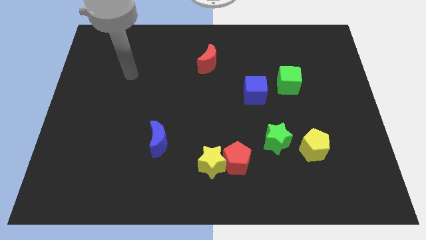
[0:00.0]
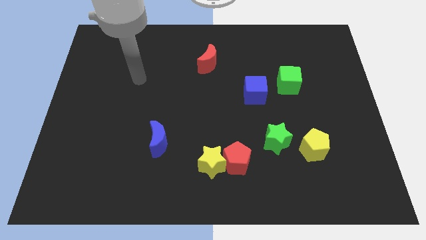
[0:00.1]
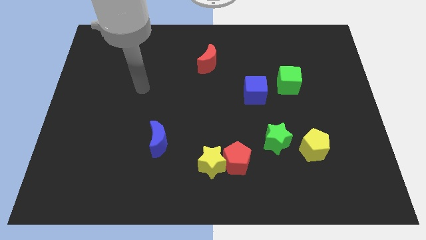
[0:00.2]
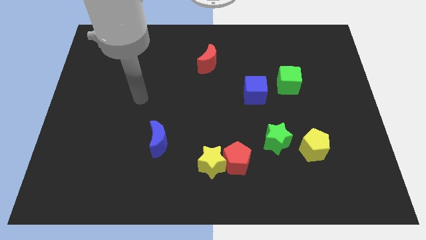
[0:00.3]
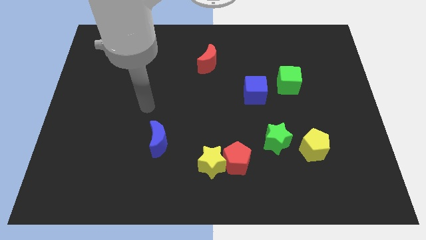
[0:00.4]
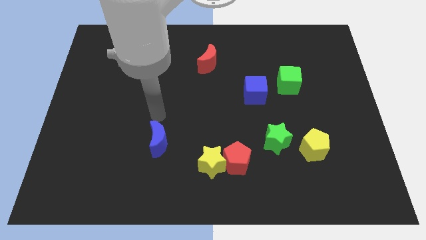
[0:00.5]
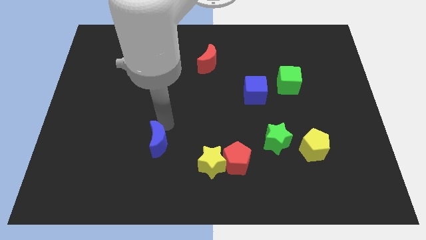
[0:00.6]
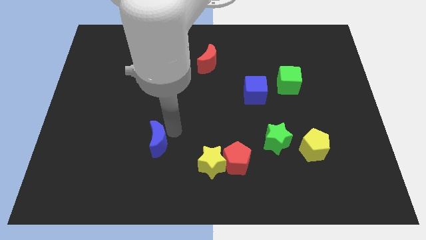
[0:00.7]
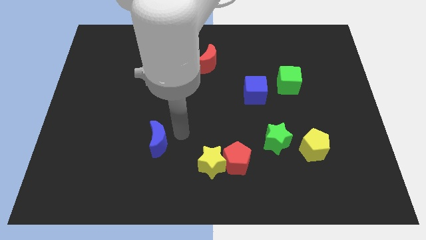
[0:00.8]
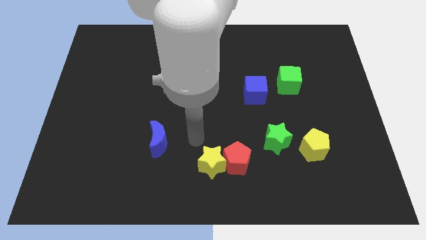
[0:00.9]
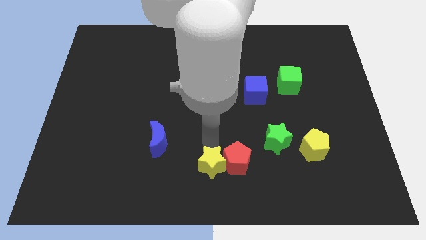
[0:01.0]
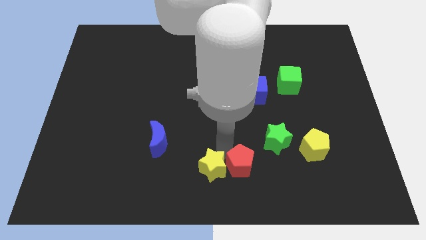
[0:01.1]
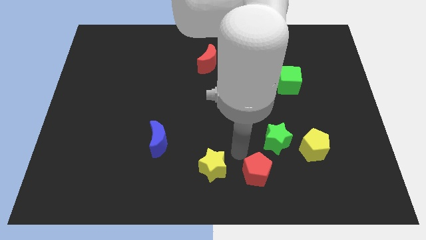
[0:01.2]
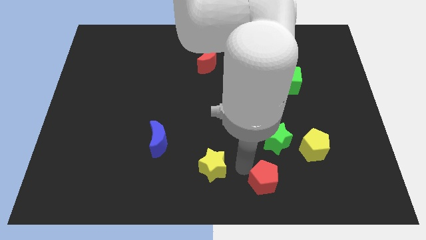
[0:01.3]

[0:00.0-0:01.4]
pull the yellow star apart from the red pentagon

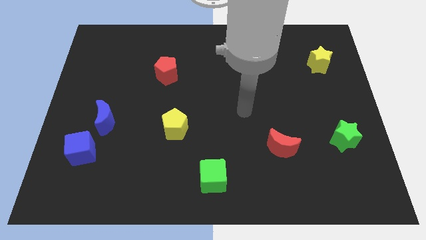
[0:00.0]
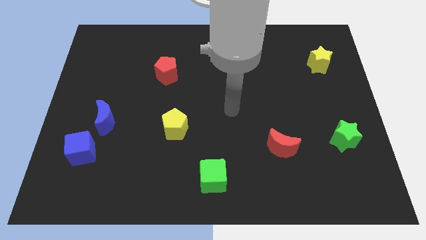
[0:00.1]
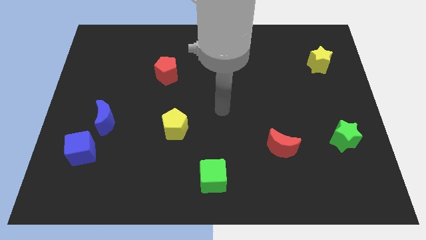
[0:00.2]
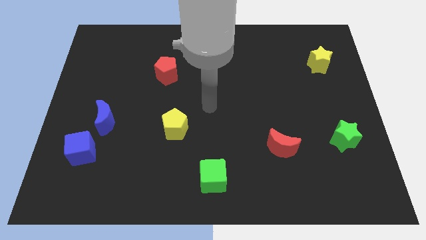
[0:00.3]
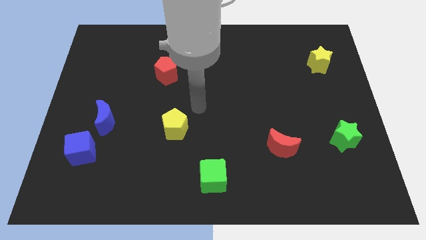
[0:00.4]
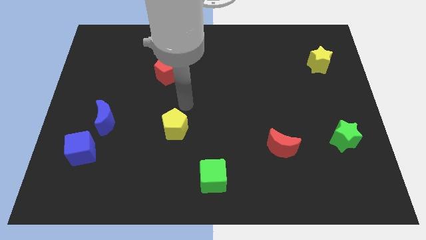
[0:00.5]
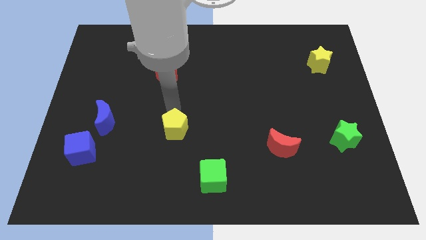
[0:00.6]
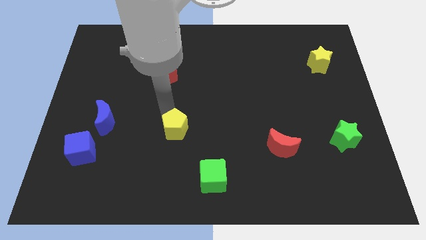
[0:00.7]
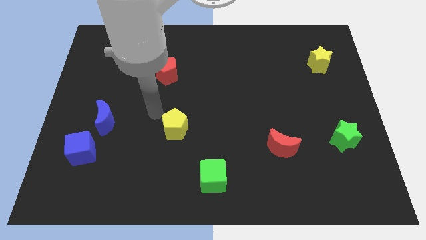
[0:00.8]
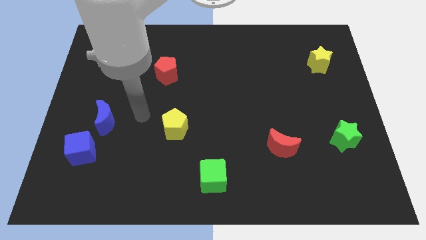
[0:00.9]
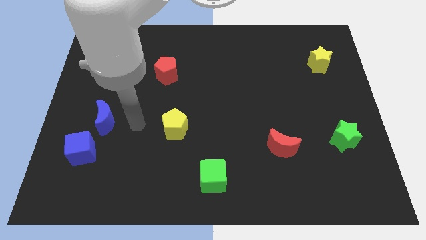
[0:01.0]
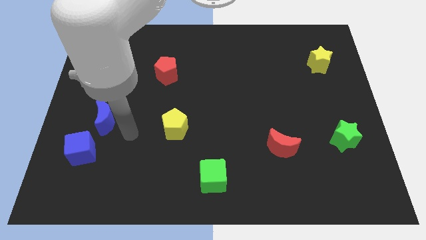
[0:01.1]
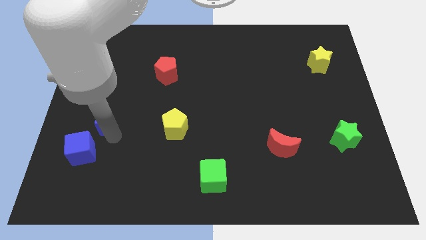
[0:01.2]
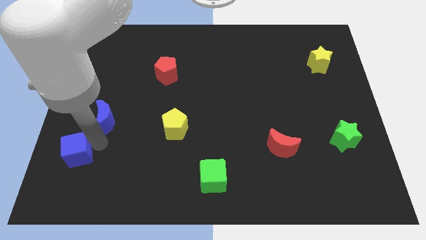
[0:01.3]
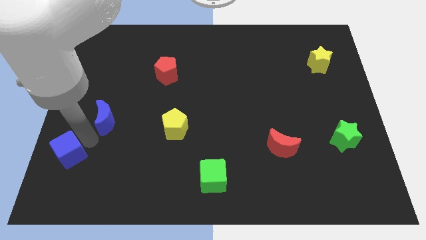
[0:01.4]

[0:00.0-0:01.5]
separate the blue moon from the blue cube

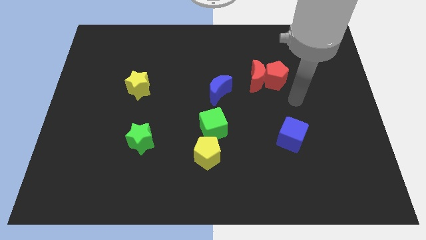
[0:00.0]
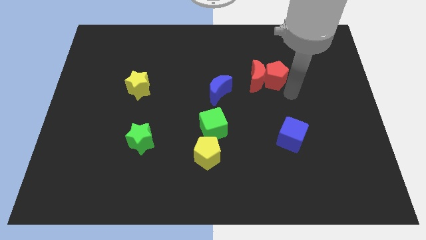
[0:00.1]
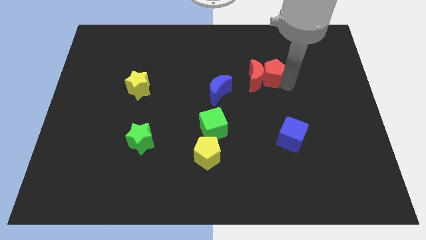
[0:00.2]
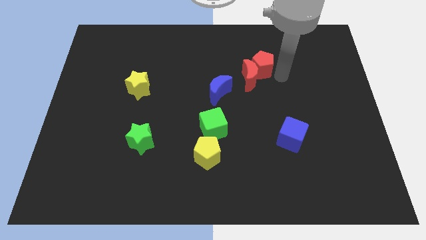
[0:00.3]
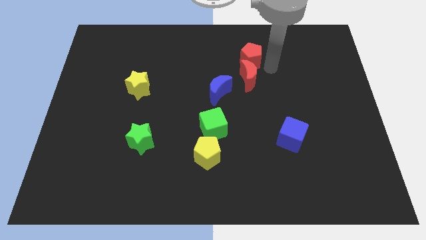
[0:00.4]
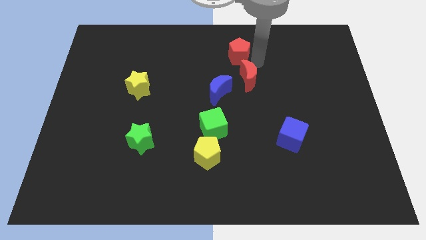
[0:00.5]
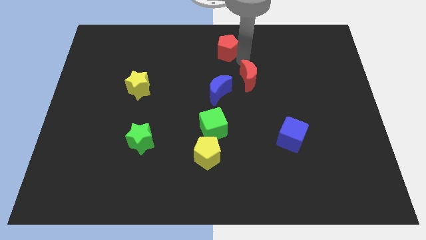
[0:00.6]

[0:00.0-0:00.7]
move the red moon away from the red pentagon

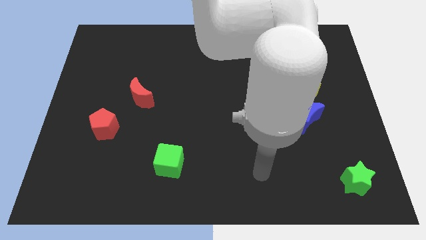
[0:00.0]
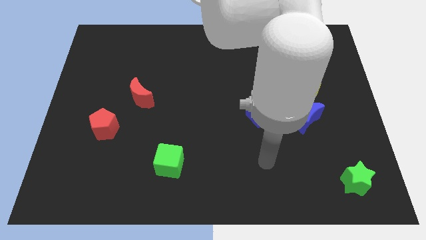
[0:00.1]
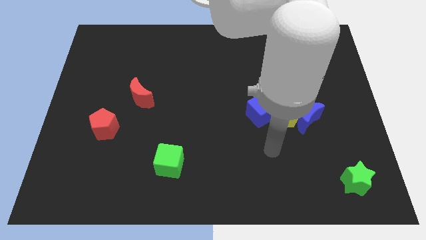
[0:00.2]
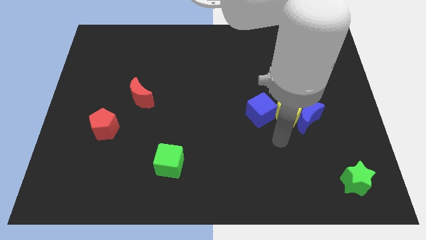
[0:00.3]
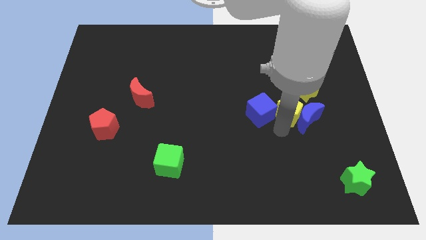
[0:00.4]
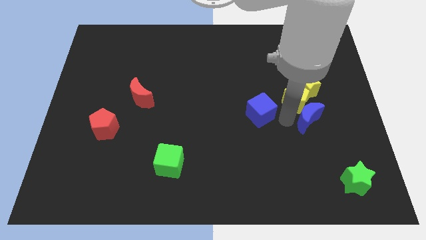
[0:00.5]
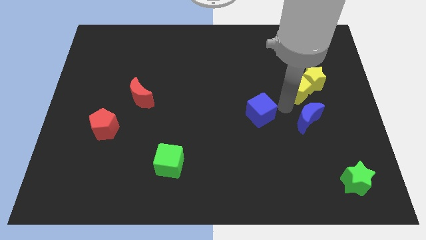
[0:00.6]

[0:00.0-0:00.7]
move the blue cube away from the yellow pentagon

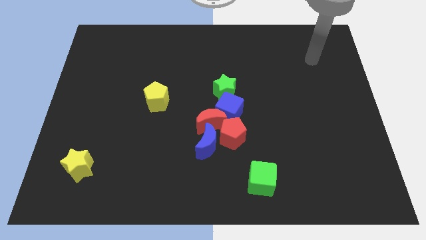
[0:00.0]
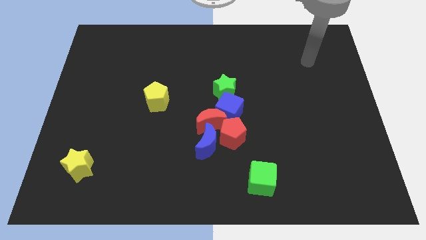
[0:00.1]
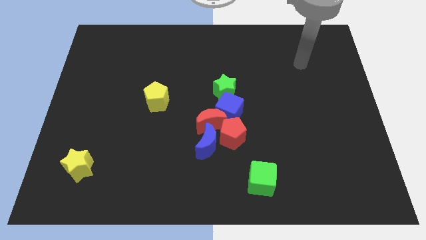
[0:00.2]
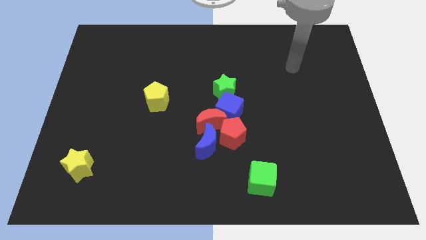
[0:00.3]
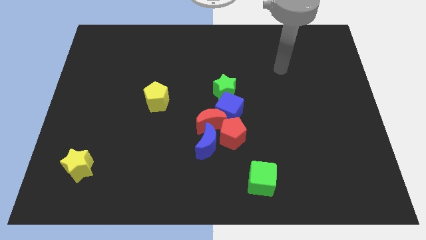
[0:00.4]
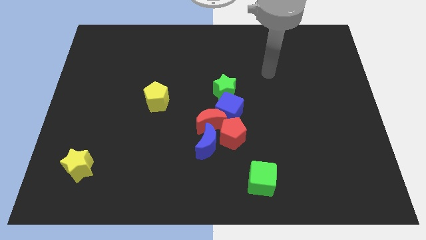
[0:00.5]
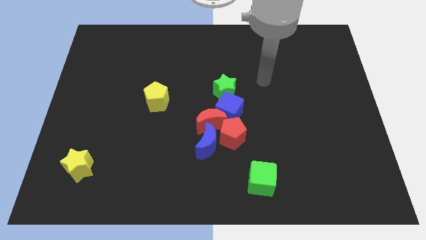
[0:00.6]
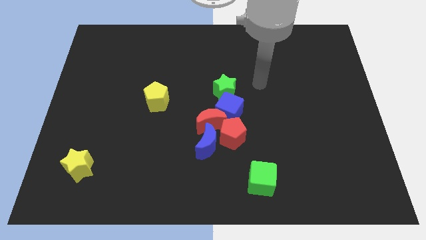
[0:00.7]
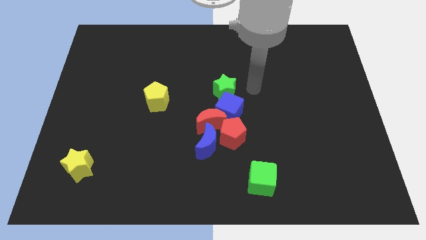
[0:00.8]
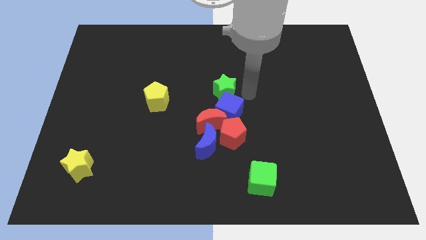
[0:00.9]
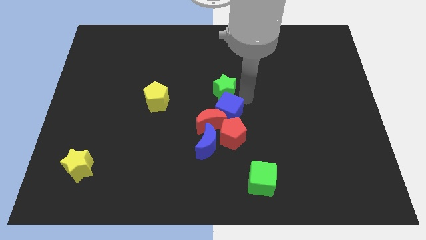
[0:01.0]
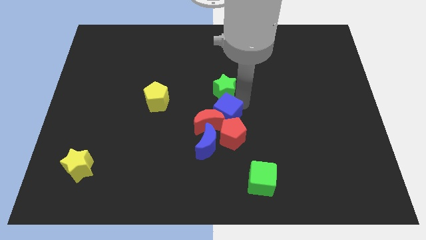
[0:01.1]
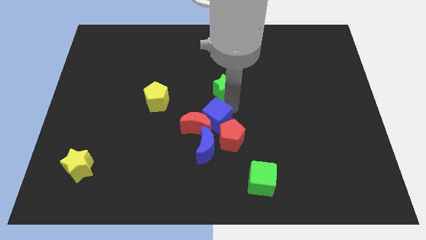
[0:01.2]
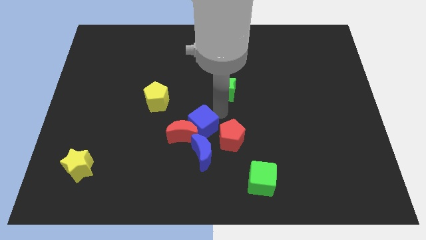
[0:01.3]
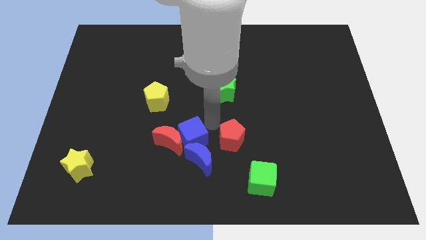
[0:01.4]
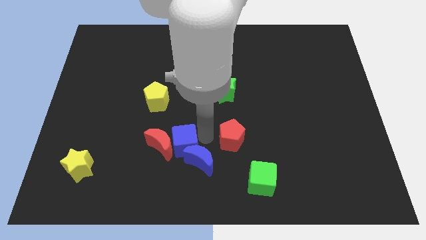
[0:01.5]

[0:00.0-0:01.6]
pull the red pentagon apart from the group

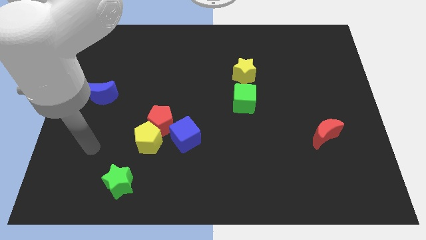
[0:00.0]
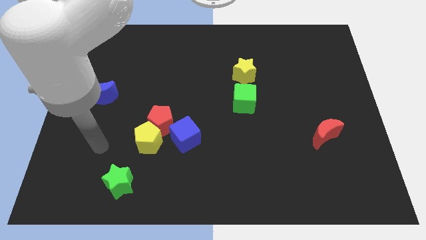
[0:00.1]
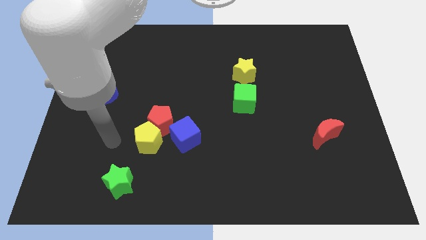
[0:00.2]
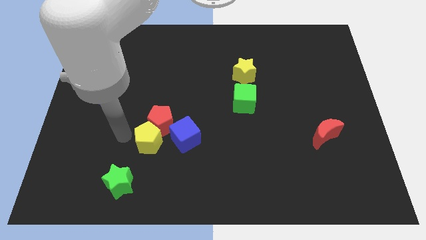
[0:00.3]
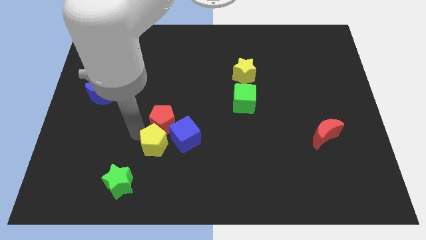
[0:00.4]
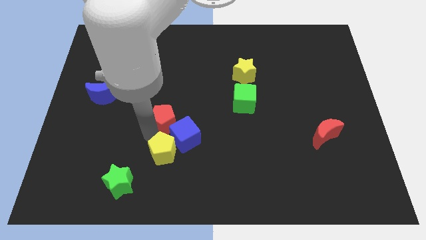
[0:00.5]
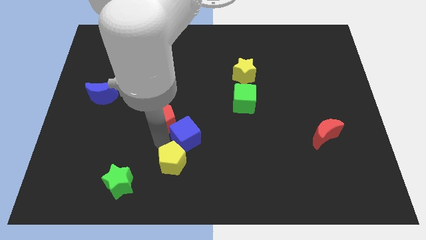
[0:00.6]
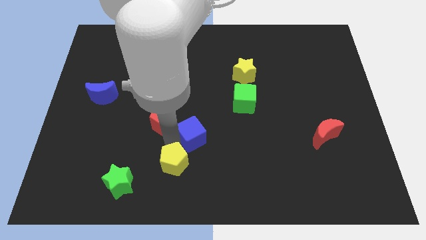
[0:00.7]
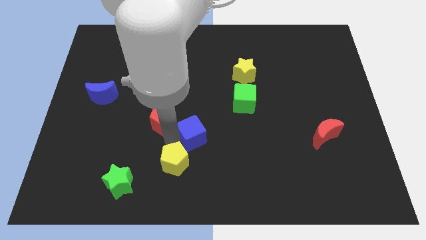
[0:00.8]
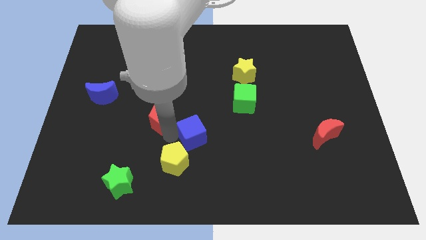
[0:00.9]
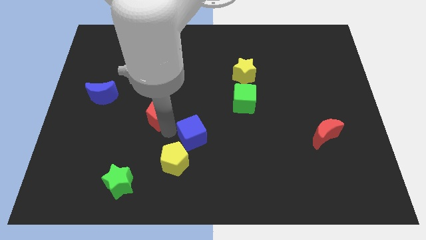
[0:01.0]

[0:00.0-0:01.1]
move the red pentagon away from the yellow pentagon and blue cube

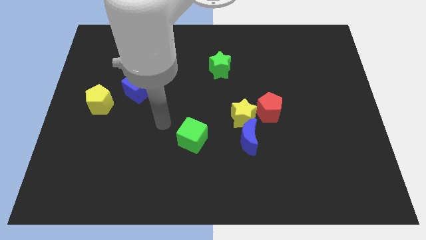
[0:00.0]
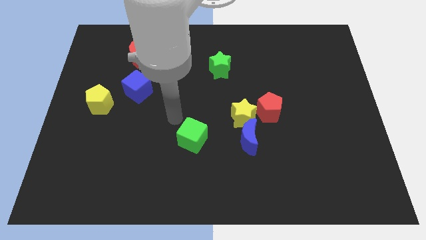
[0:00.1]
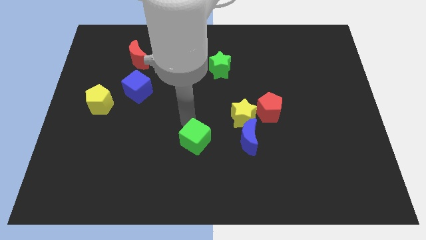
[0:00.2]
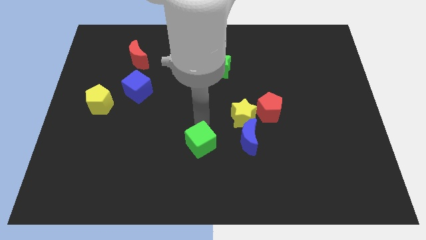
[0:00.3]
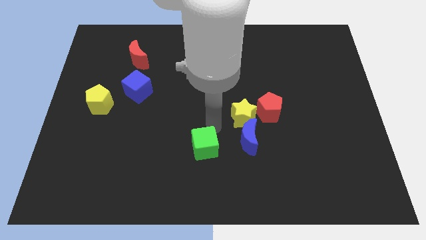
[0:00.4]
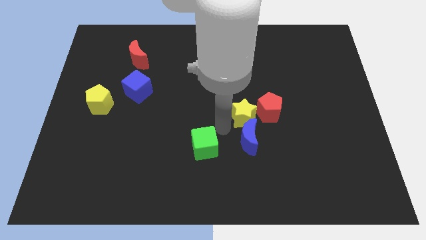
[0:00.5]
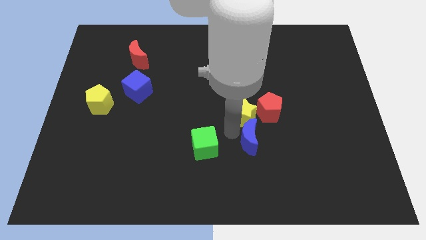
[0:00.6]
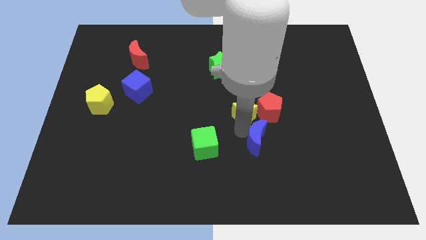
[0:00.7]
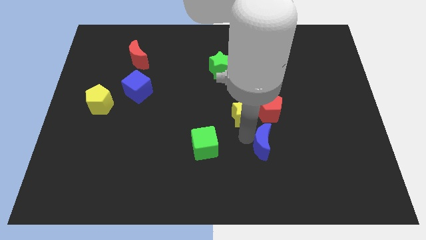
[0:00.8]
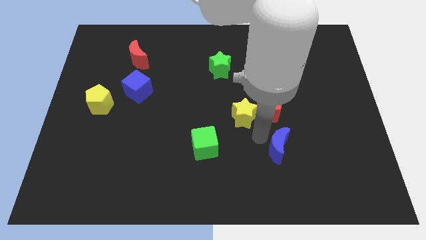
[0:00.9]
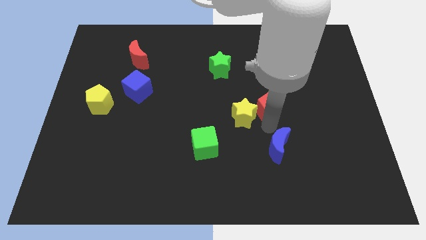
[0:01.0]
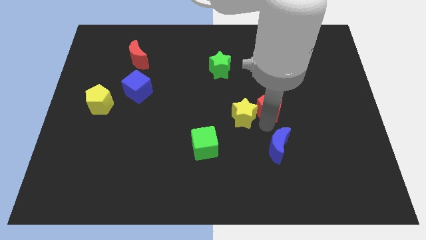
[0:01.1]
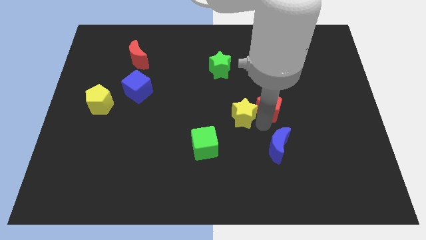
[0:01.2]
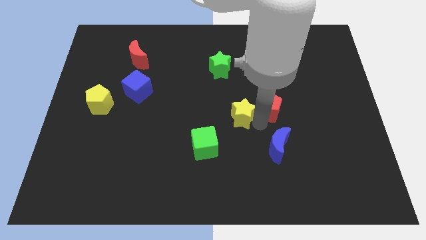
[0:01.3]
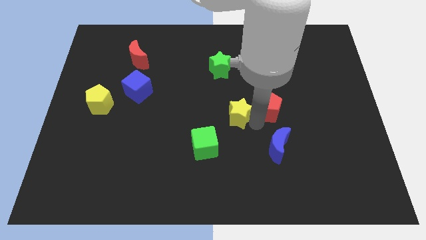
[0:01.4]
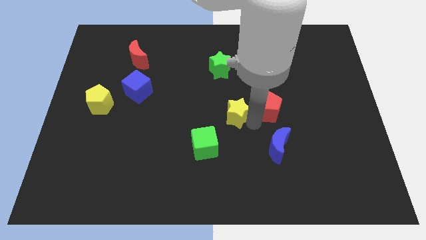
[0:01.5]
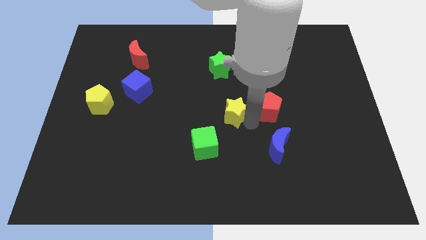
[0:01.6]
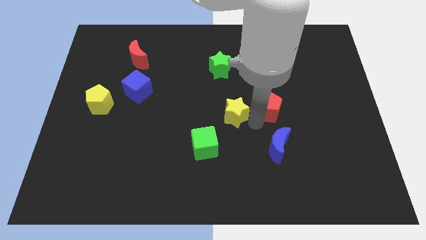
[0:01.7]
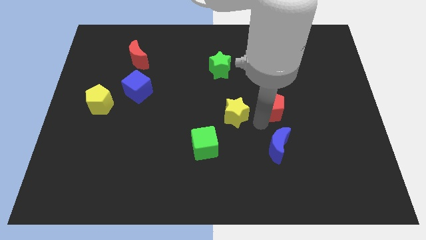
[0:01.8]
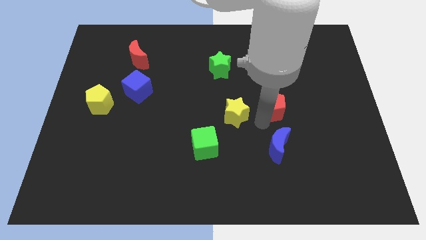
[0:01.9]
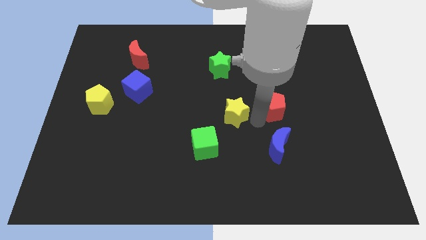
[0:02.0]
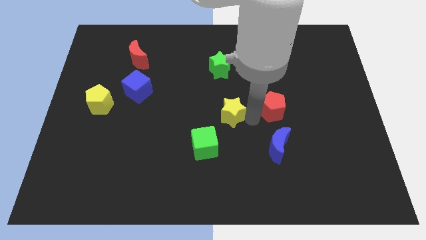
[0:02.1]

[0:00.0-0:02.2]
separate the yellow star from the blue moon and red pentagon
